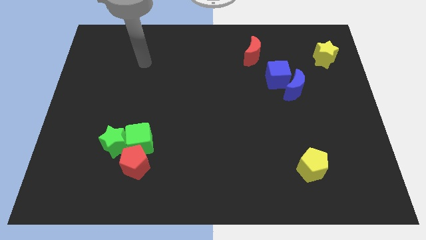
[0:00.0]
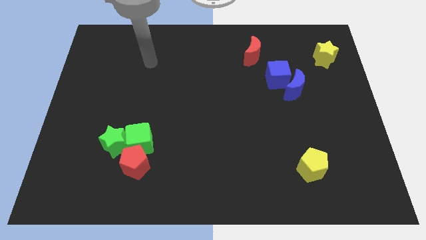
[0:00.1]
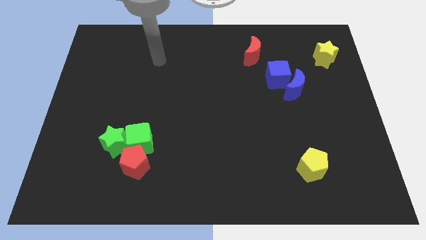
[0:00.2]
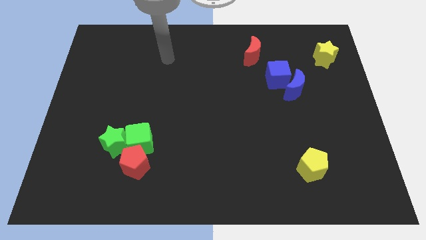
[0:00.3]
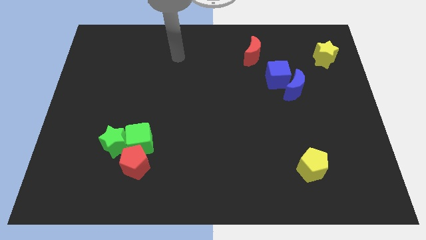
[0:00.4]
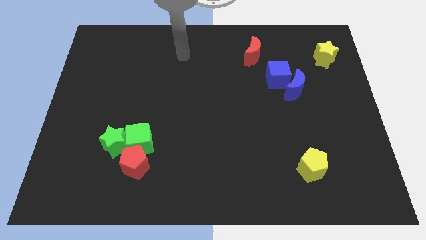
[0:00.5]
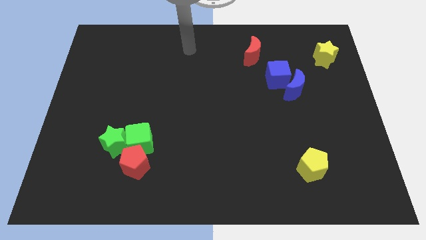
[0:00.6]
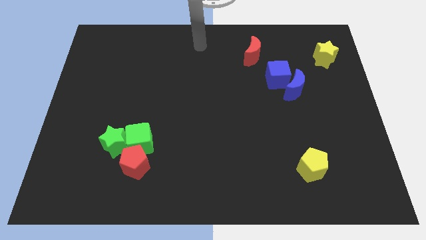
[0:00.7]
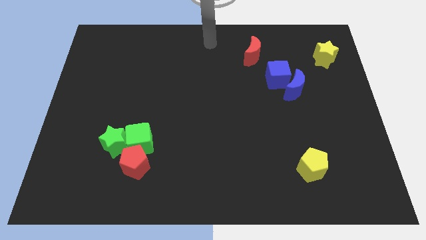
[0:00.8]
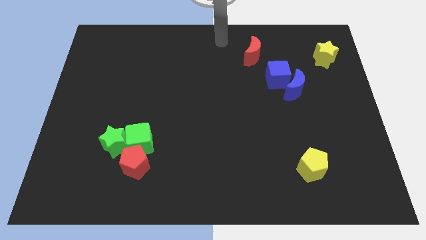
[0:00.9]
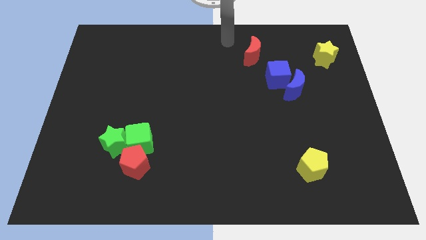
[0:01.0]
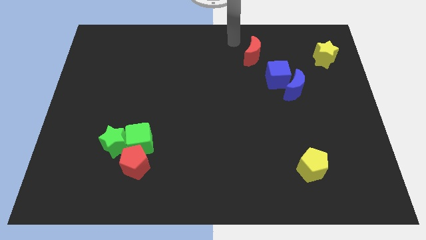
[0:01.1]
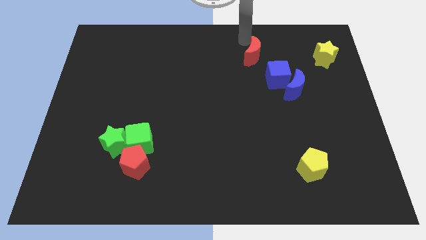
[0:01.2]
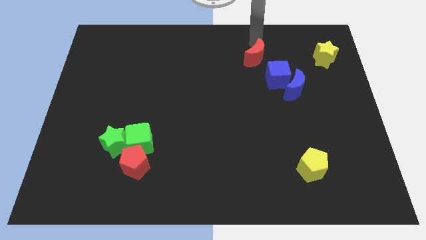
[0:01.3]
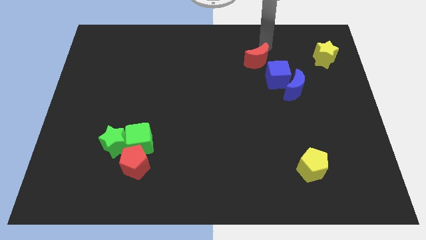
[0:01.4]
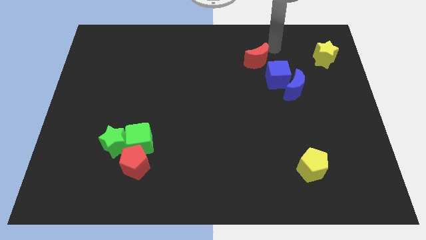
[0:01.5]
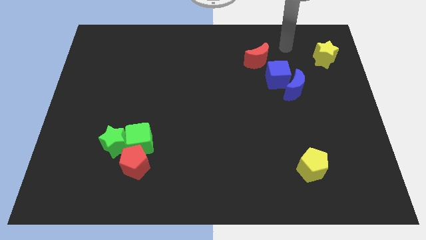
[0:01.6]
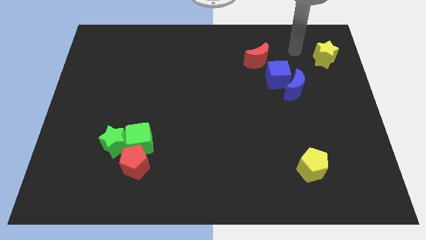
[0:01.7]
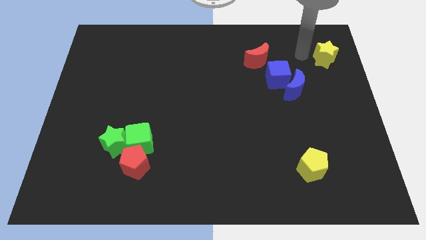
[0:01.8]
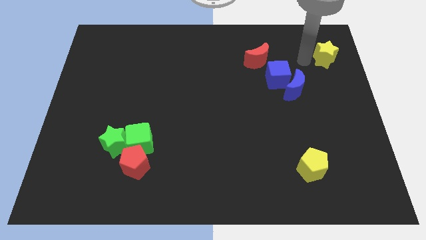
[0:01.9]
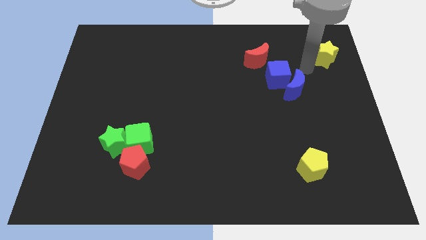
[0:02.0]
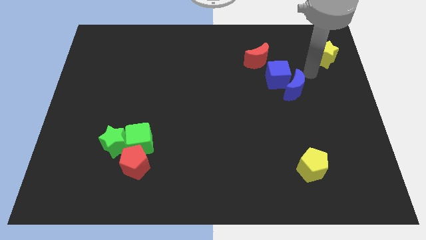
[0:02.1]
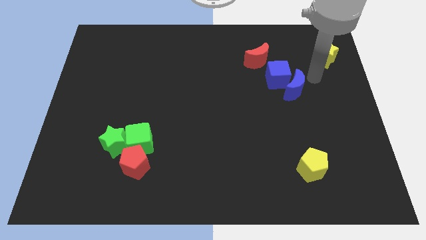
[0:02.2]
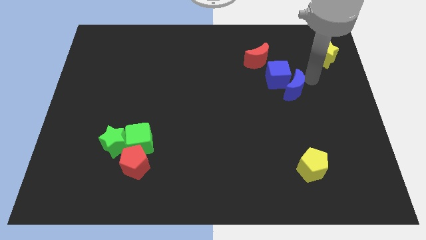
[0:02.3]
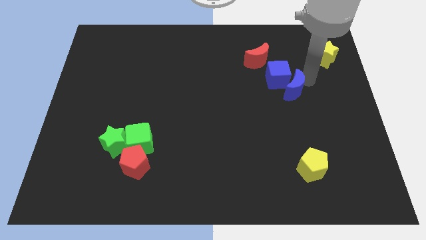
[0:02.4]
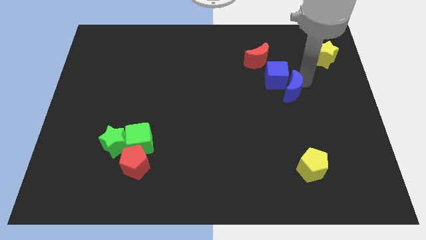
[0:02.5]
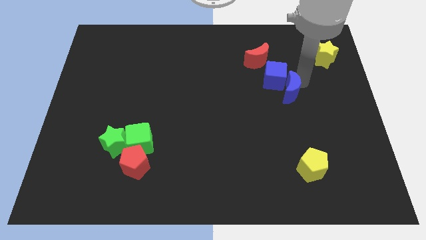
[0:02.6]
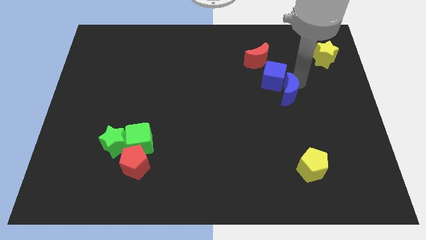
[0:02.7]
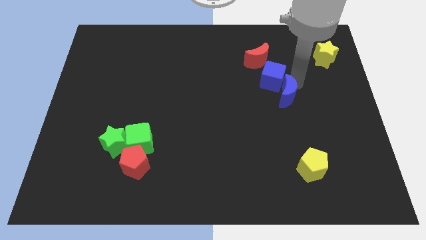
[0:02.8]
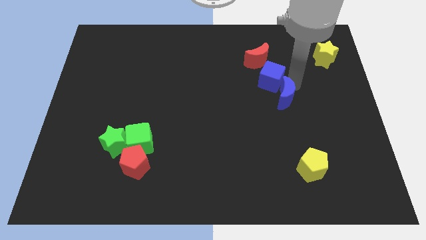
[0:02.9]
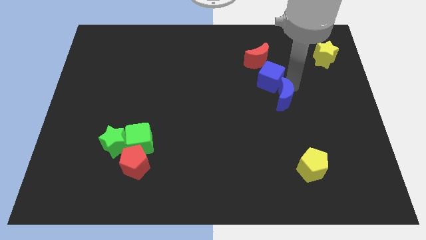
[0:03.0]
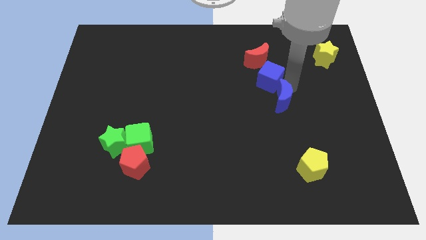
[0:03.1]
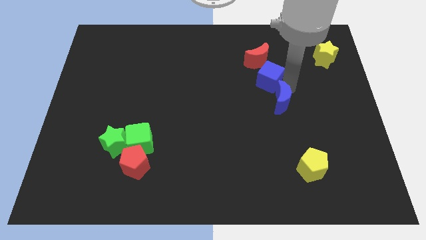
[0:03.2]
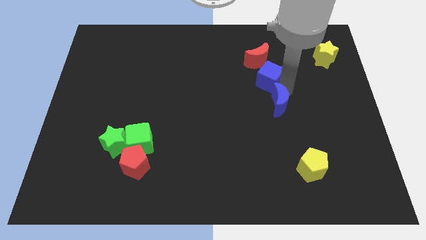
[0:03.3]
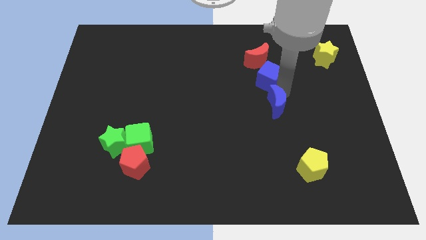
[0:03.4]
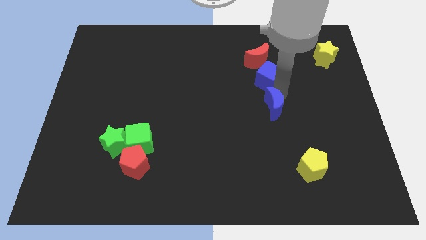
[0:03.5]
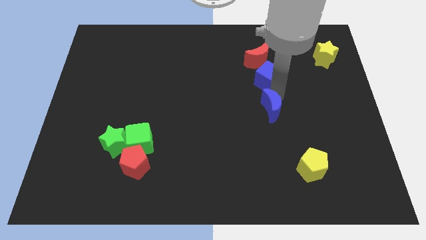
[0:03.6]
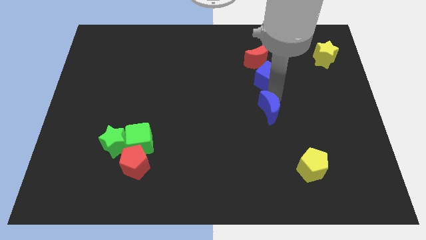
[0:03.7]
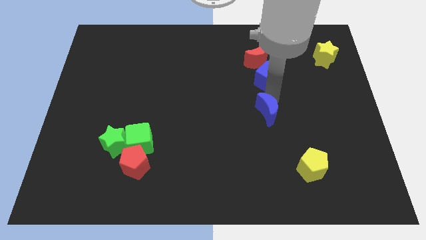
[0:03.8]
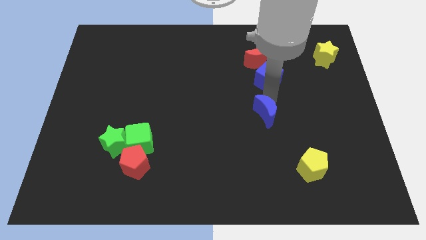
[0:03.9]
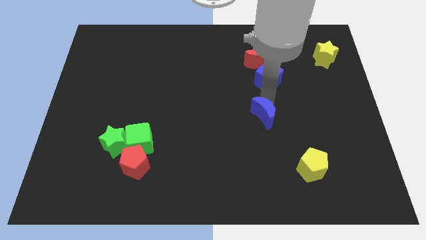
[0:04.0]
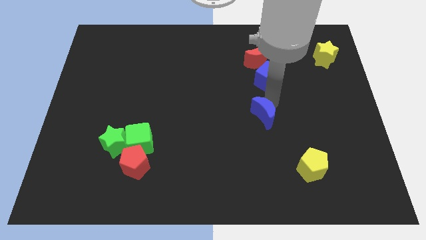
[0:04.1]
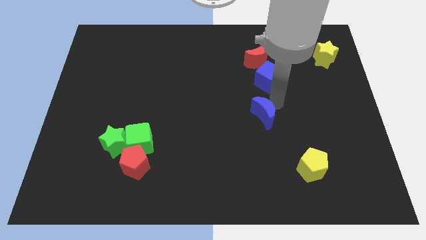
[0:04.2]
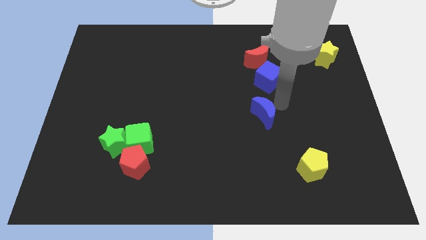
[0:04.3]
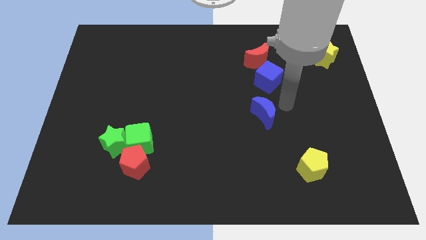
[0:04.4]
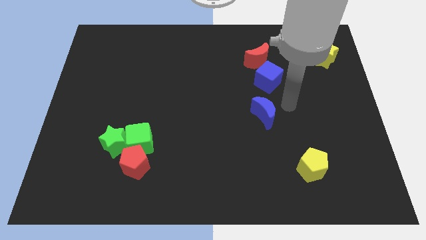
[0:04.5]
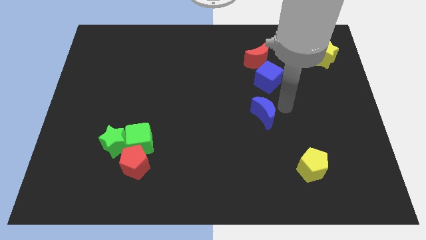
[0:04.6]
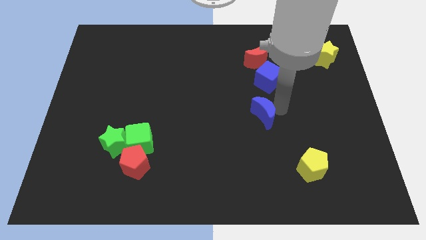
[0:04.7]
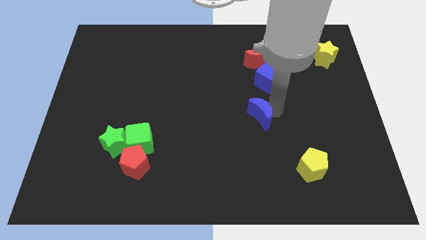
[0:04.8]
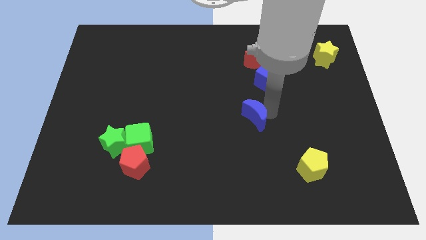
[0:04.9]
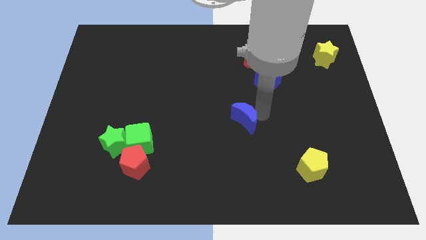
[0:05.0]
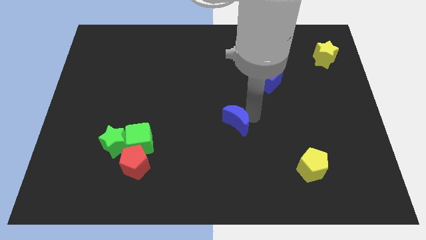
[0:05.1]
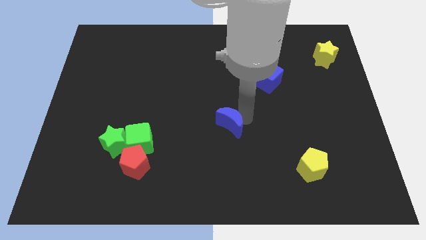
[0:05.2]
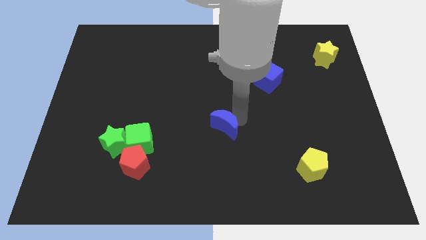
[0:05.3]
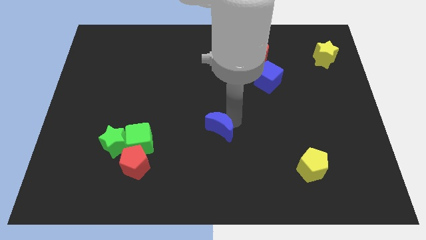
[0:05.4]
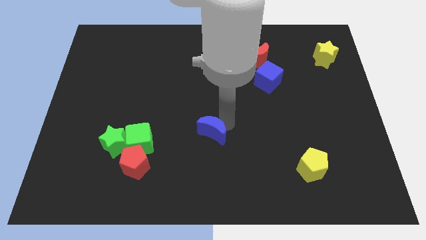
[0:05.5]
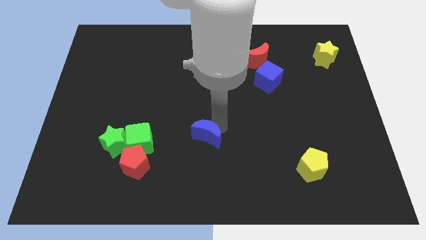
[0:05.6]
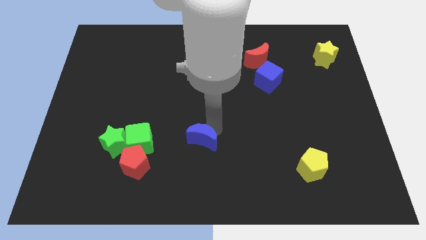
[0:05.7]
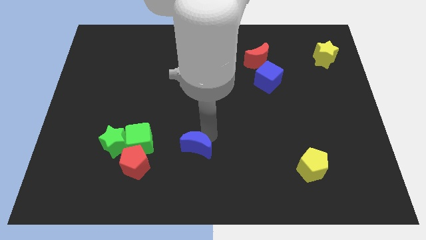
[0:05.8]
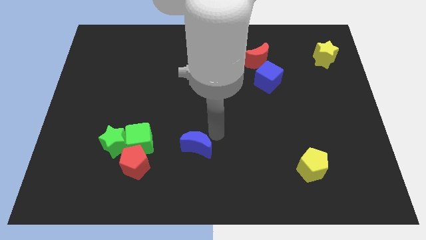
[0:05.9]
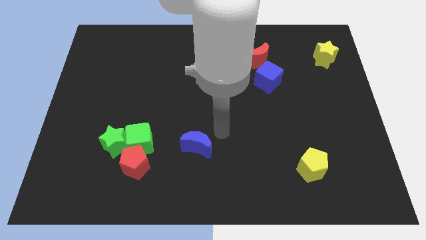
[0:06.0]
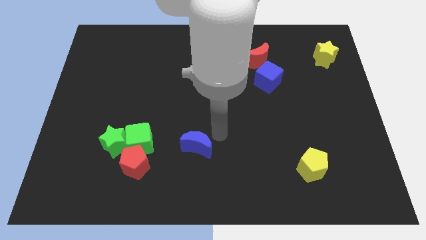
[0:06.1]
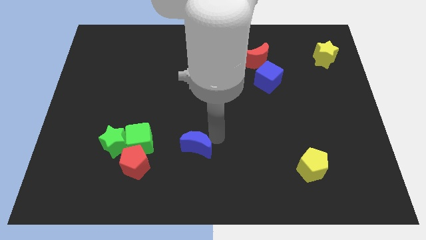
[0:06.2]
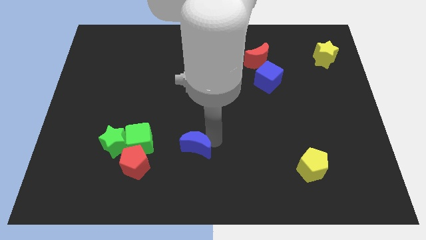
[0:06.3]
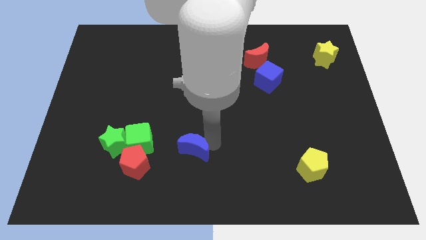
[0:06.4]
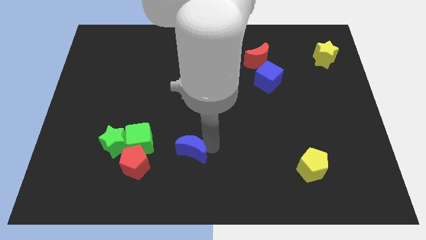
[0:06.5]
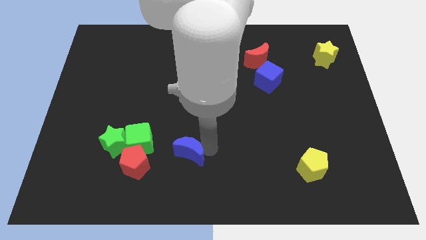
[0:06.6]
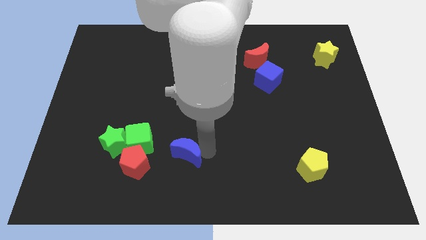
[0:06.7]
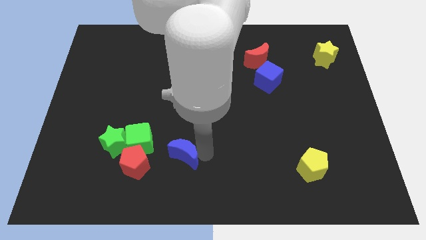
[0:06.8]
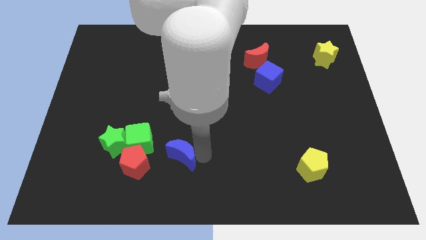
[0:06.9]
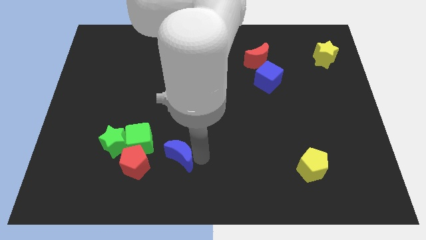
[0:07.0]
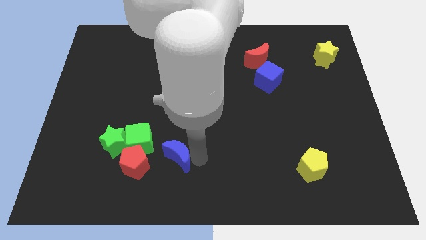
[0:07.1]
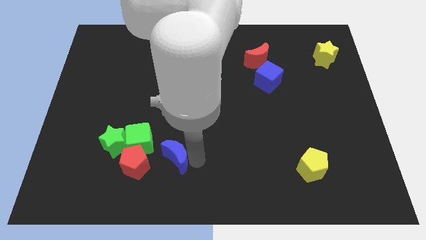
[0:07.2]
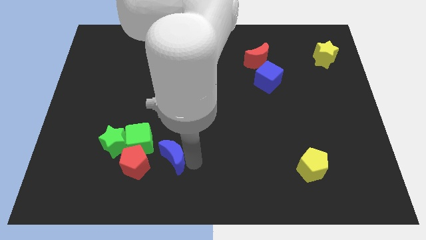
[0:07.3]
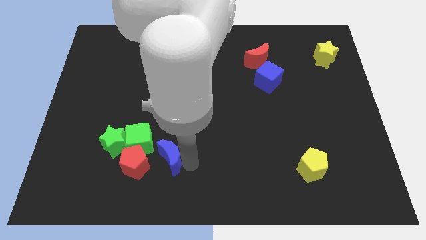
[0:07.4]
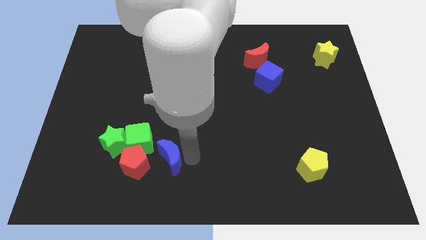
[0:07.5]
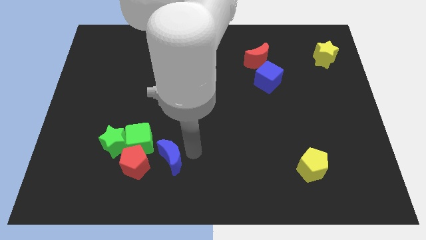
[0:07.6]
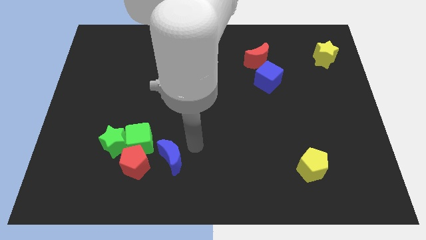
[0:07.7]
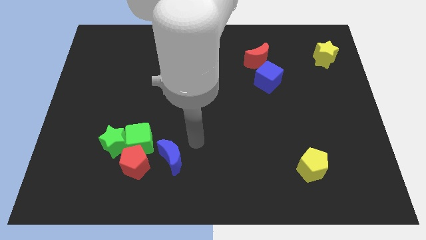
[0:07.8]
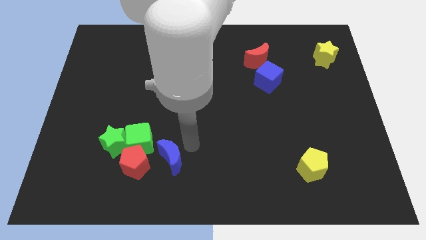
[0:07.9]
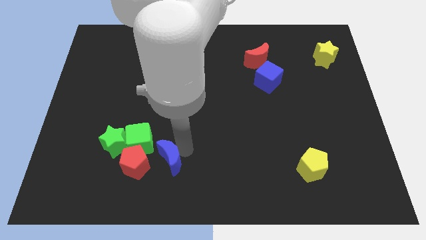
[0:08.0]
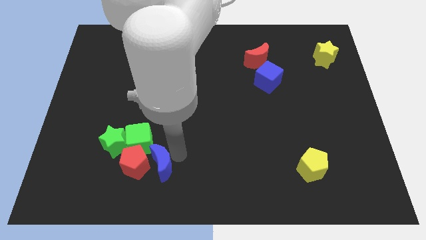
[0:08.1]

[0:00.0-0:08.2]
move the blue moon to the bottom right side of the green star
